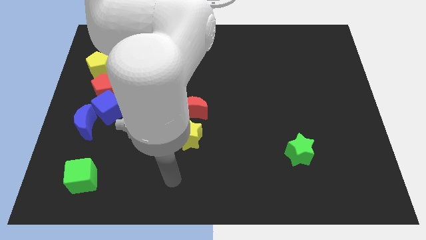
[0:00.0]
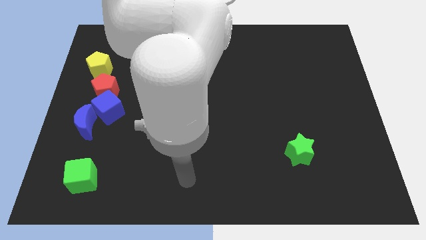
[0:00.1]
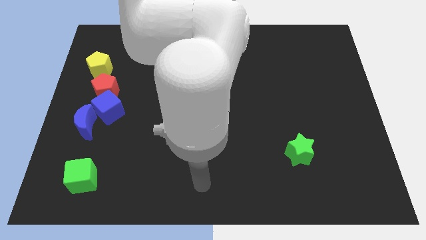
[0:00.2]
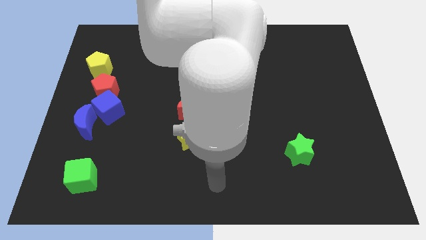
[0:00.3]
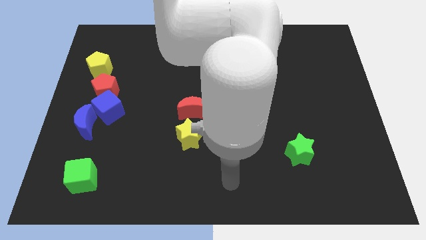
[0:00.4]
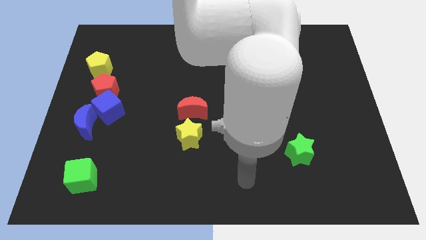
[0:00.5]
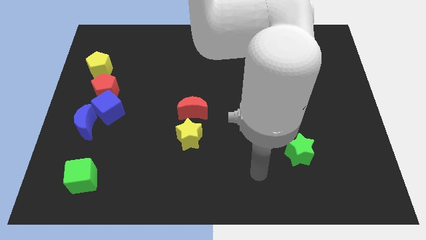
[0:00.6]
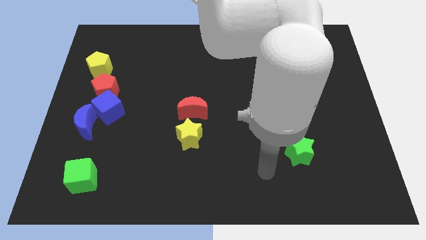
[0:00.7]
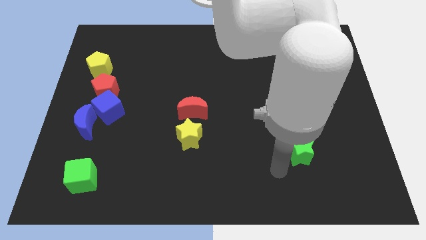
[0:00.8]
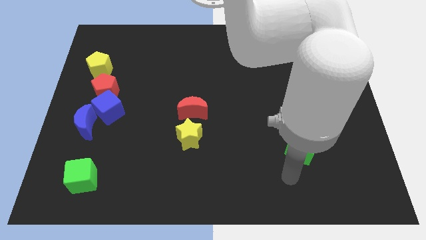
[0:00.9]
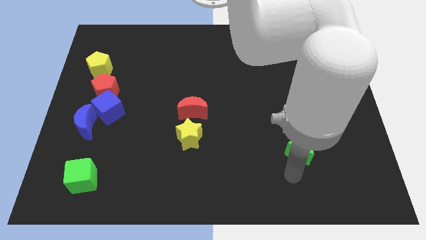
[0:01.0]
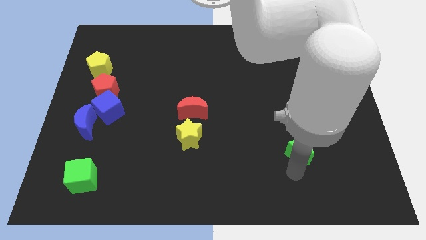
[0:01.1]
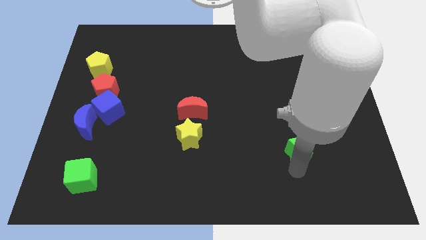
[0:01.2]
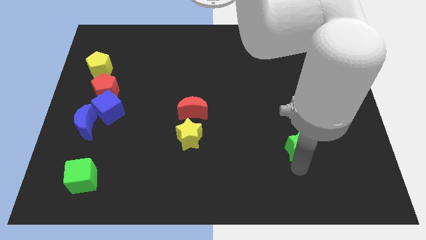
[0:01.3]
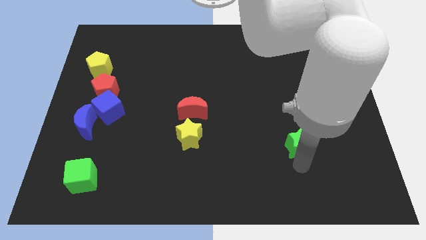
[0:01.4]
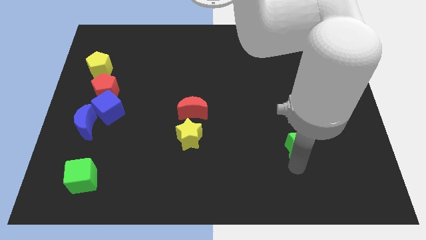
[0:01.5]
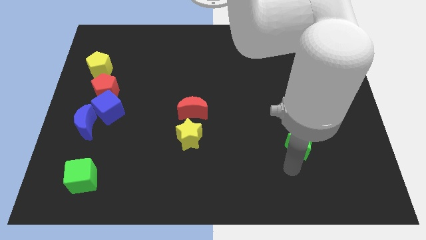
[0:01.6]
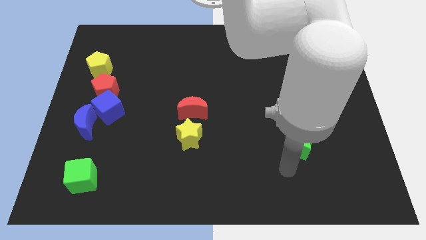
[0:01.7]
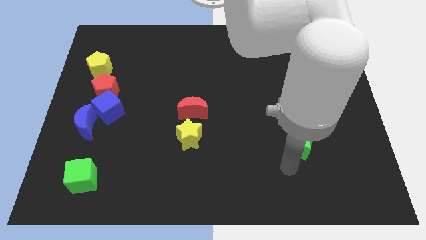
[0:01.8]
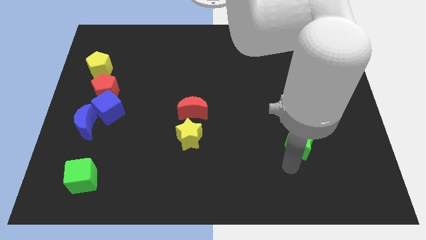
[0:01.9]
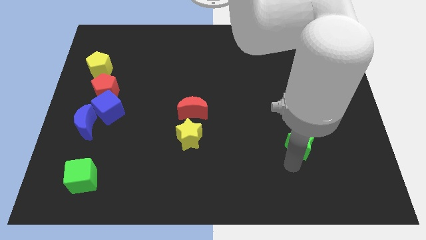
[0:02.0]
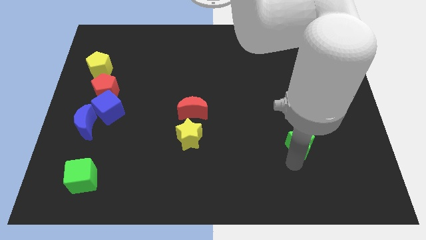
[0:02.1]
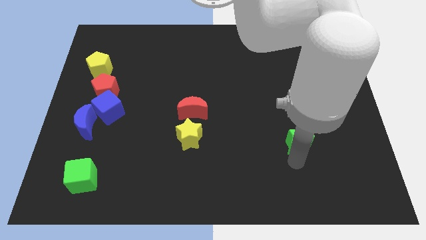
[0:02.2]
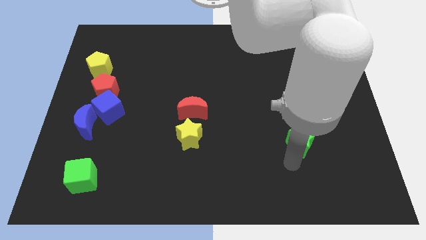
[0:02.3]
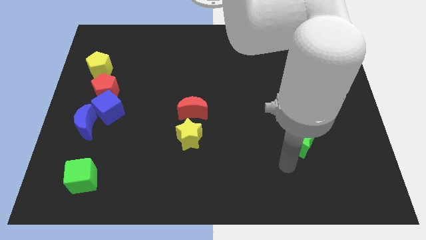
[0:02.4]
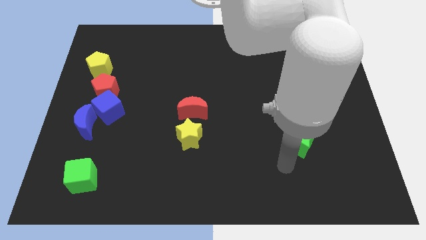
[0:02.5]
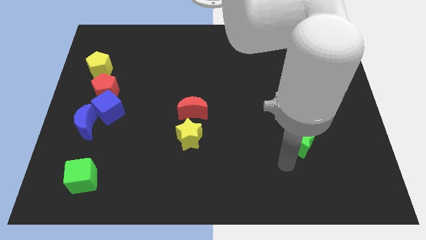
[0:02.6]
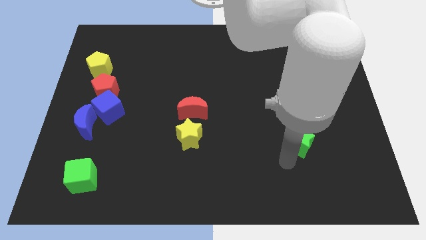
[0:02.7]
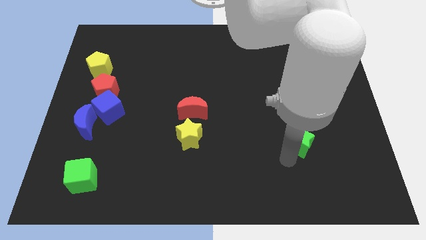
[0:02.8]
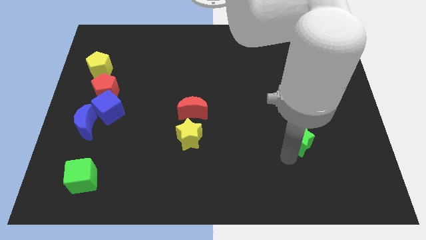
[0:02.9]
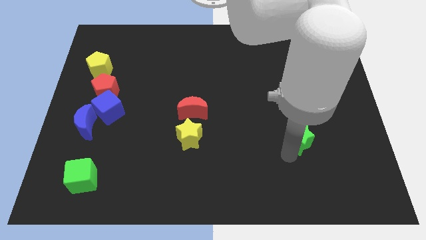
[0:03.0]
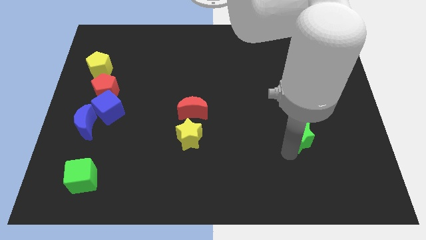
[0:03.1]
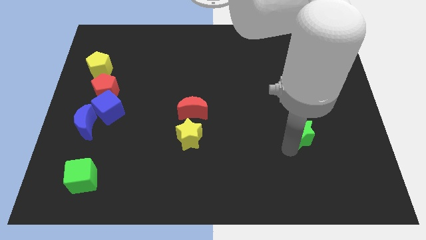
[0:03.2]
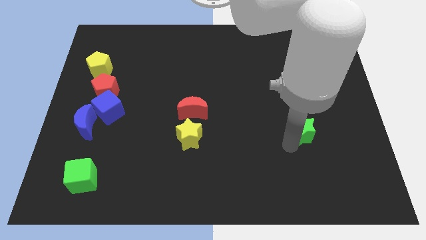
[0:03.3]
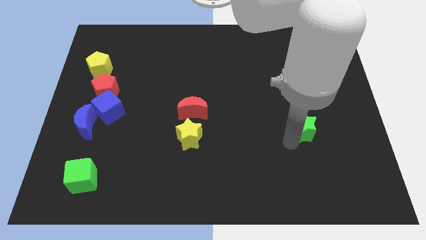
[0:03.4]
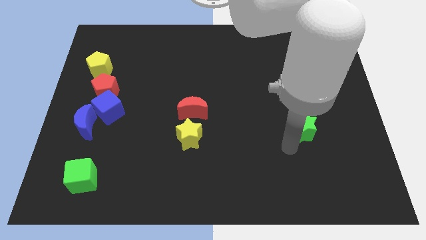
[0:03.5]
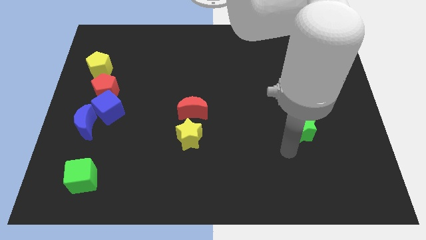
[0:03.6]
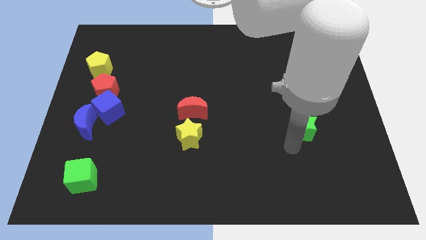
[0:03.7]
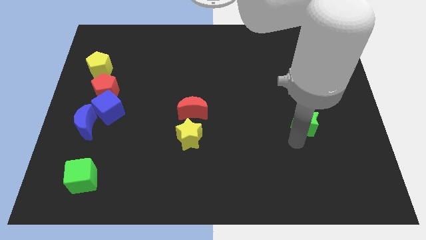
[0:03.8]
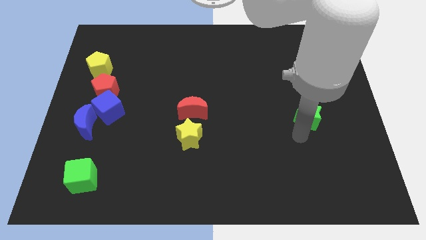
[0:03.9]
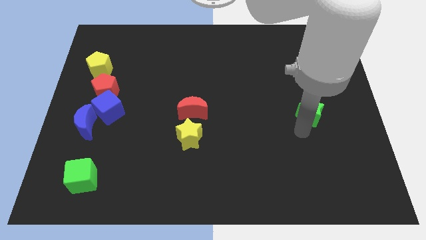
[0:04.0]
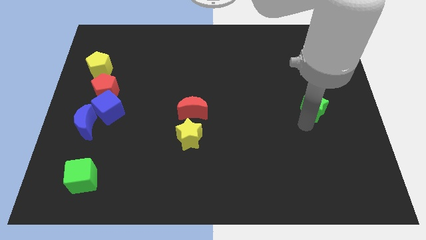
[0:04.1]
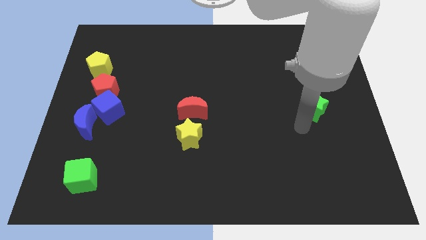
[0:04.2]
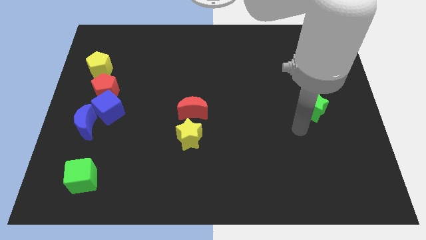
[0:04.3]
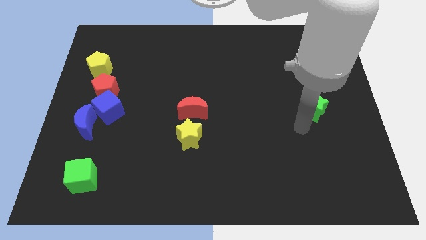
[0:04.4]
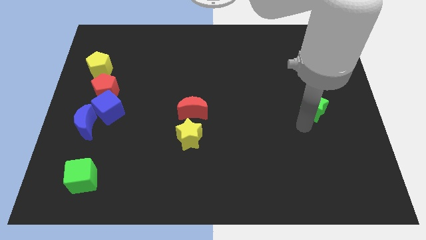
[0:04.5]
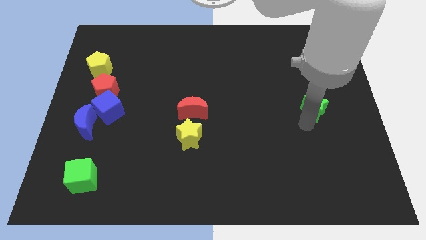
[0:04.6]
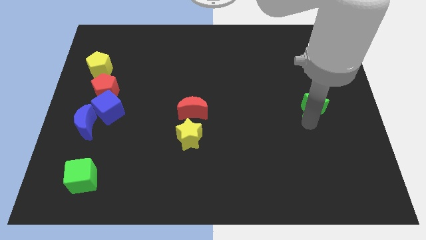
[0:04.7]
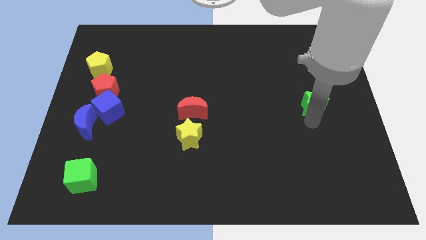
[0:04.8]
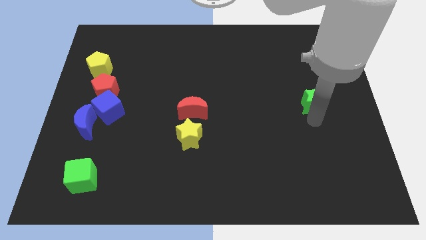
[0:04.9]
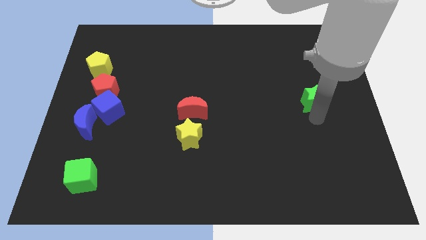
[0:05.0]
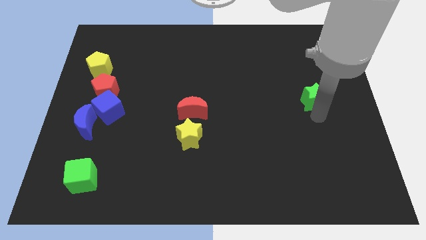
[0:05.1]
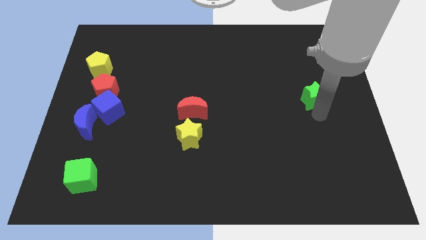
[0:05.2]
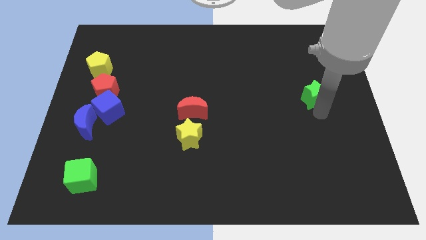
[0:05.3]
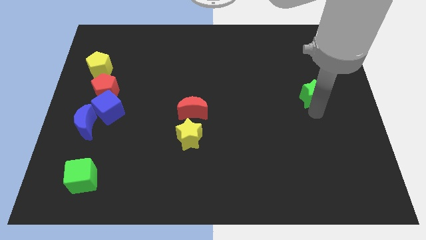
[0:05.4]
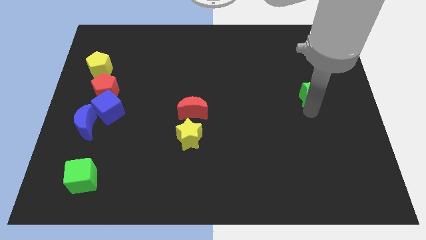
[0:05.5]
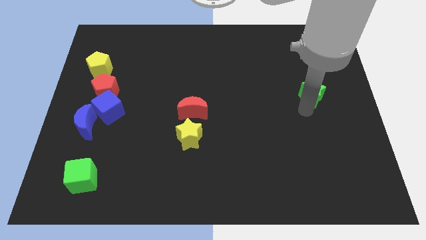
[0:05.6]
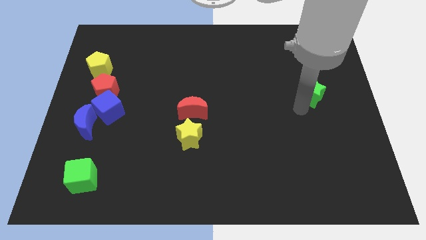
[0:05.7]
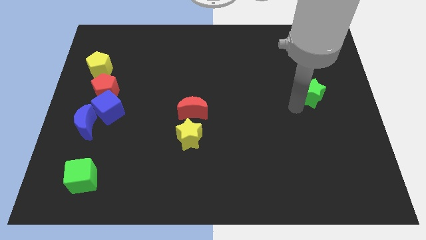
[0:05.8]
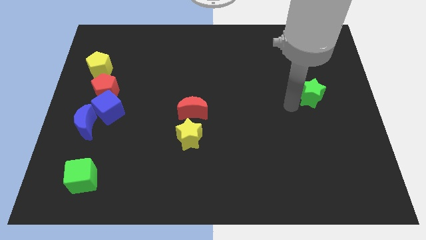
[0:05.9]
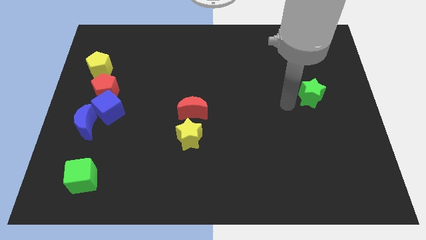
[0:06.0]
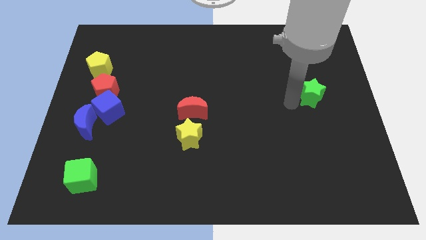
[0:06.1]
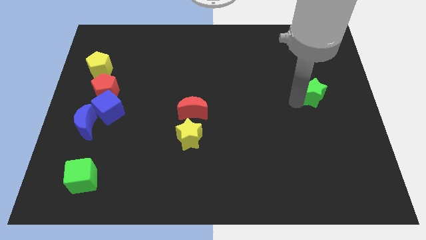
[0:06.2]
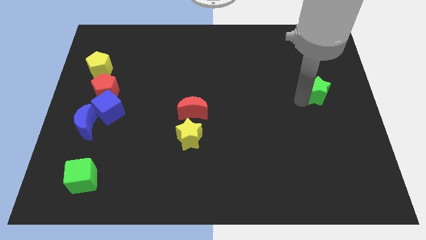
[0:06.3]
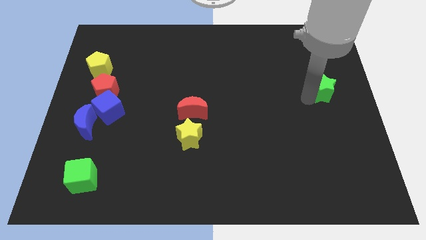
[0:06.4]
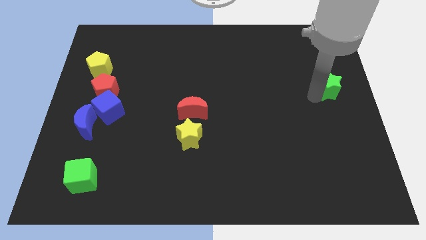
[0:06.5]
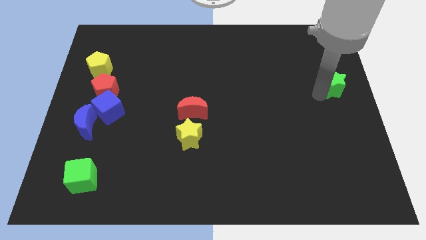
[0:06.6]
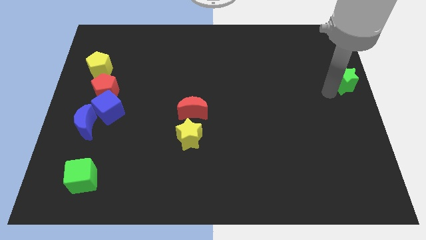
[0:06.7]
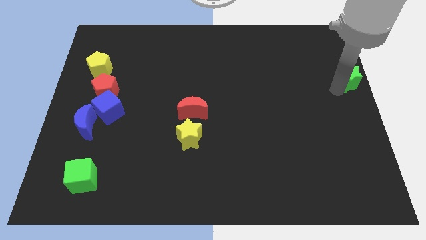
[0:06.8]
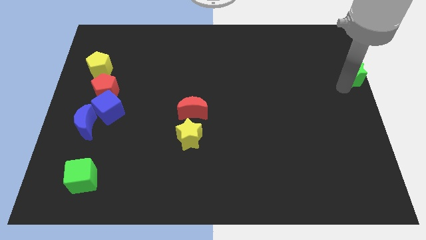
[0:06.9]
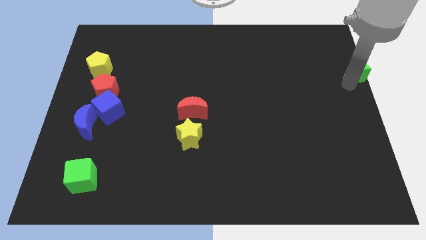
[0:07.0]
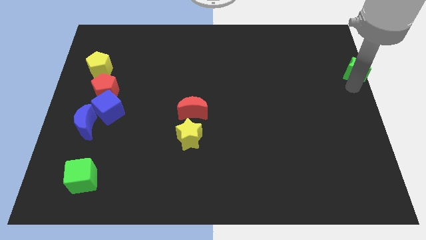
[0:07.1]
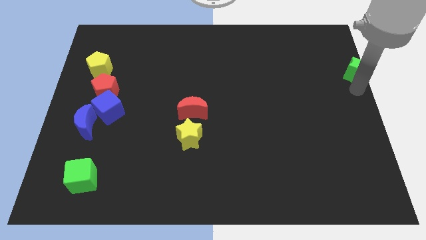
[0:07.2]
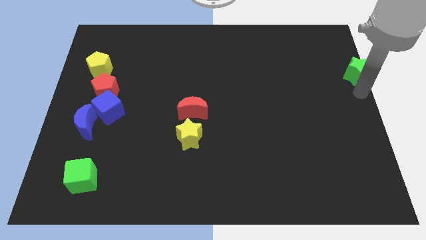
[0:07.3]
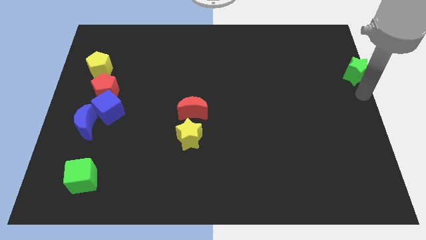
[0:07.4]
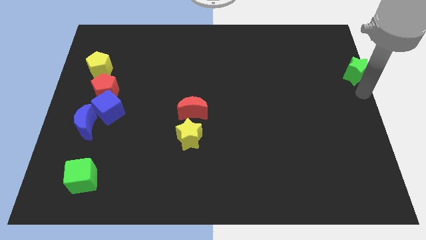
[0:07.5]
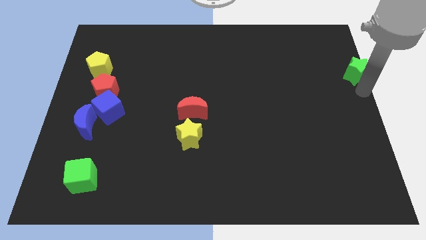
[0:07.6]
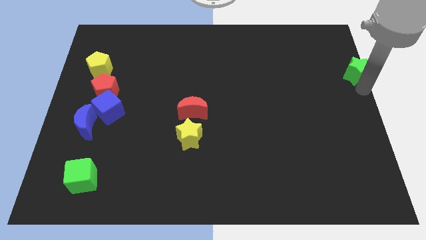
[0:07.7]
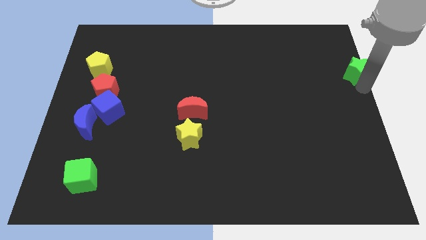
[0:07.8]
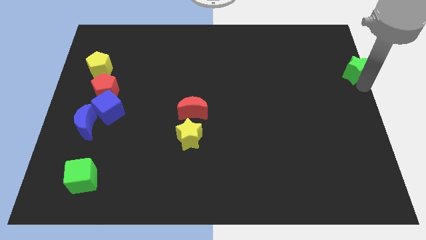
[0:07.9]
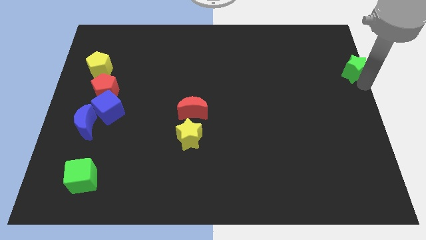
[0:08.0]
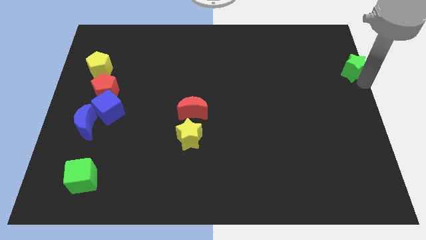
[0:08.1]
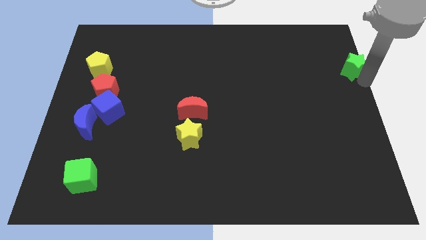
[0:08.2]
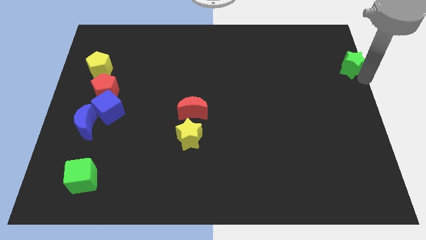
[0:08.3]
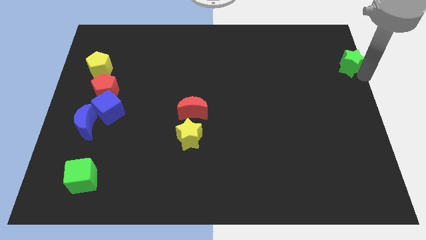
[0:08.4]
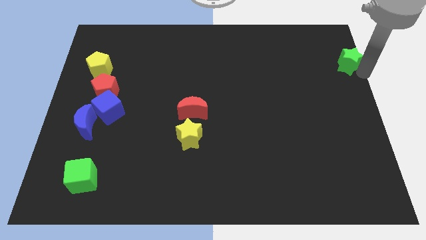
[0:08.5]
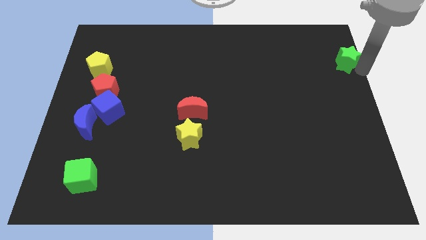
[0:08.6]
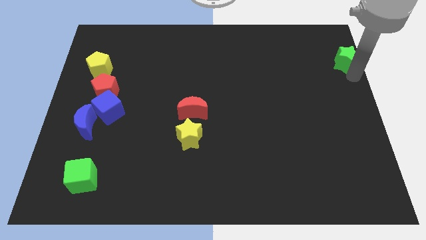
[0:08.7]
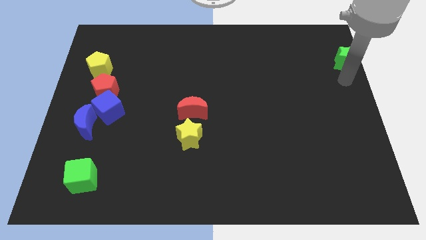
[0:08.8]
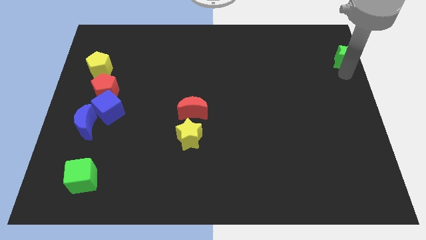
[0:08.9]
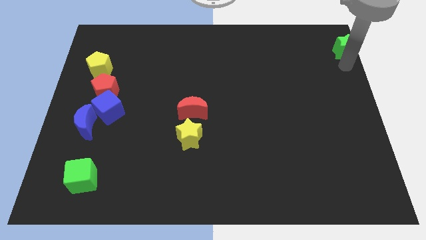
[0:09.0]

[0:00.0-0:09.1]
push the green star to the upper right corner
